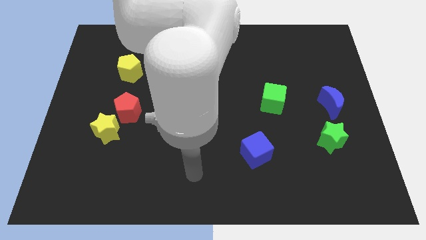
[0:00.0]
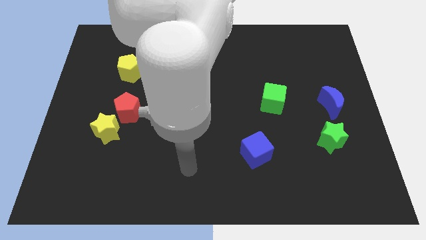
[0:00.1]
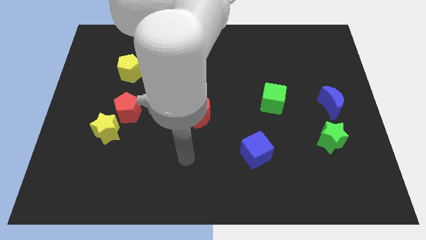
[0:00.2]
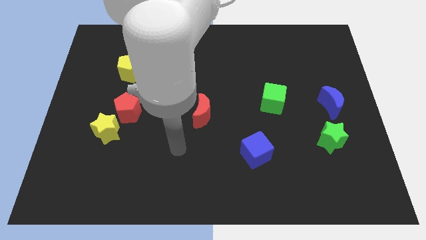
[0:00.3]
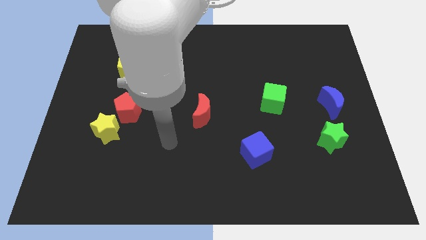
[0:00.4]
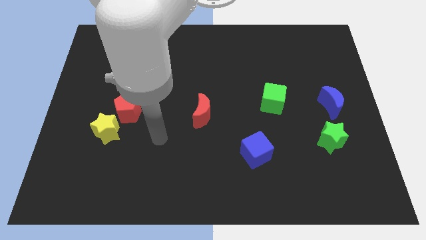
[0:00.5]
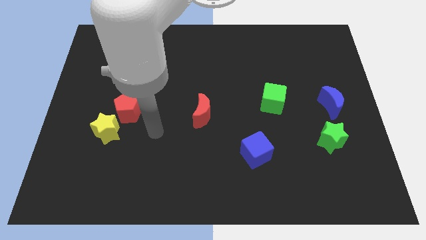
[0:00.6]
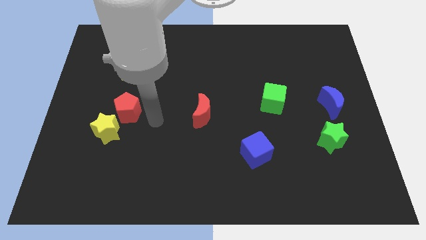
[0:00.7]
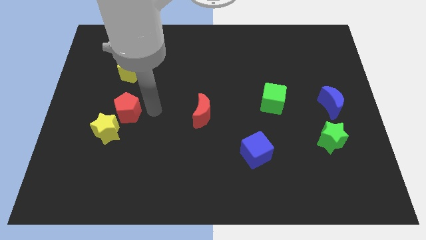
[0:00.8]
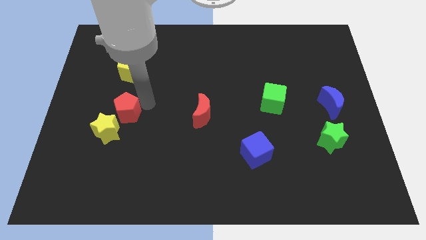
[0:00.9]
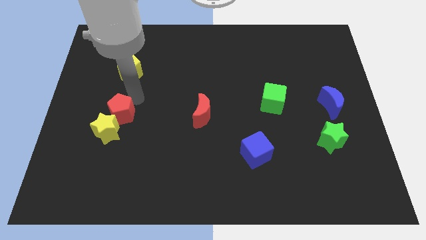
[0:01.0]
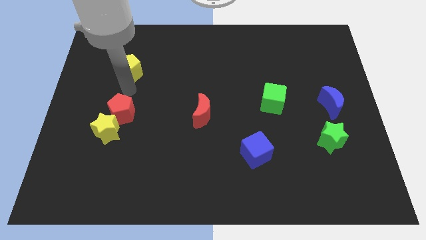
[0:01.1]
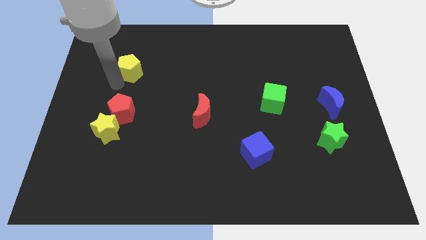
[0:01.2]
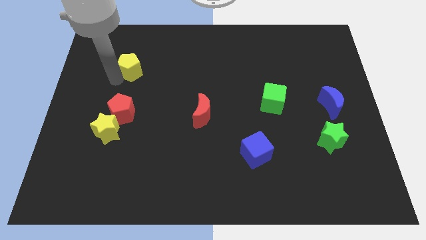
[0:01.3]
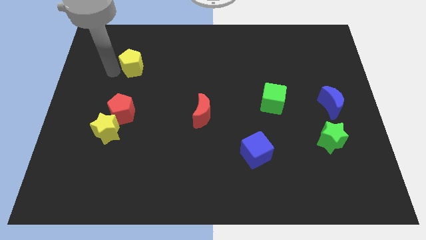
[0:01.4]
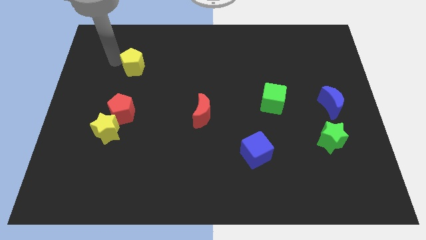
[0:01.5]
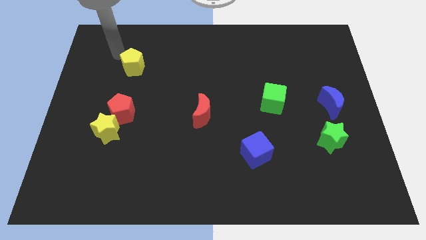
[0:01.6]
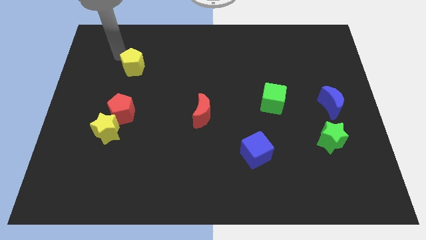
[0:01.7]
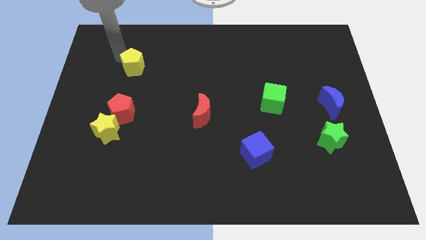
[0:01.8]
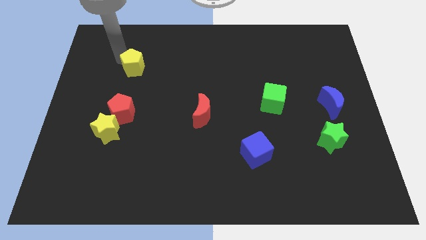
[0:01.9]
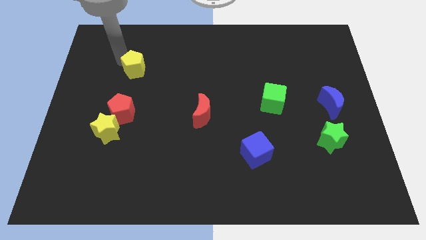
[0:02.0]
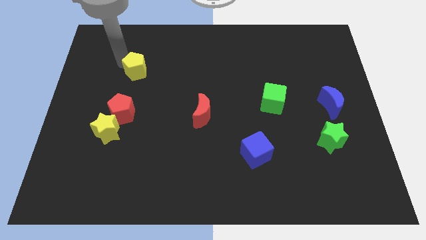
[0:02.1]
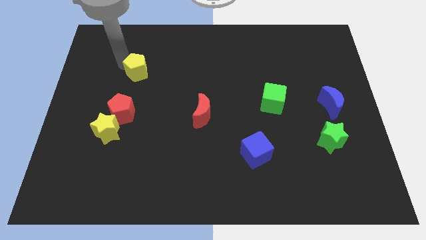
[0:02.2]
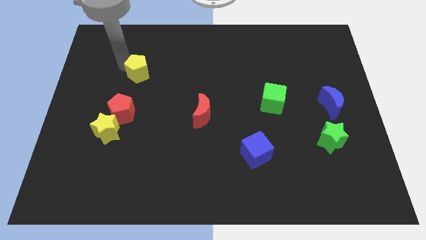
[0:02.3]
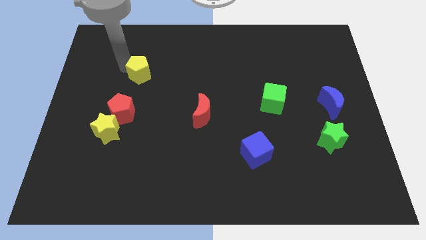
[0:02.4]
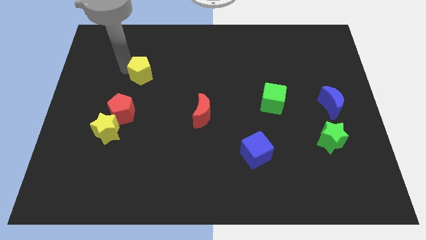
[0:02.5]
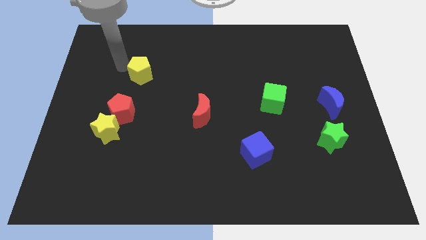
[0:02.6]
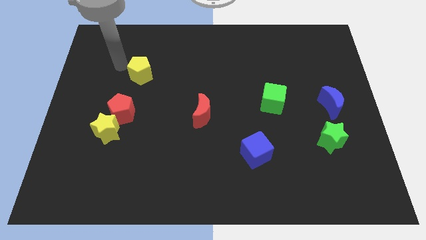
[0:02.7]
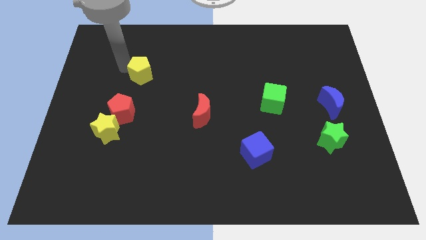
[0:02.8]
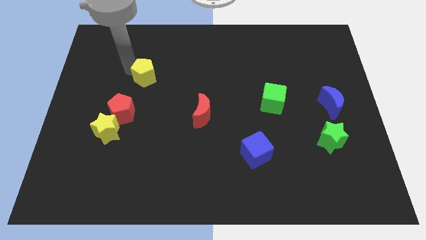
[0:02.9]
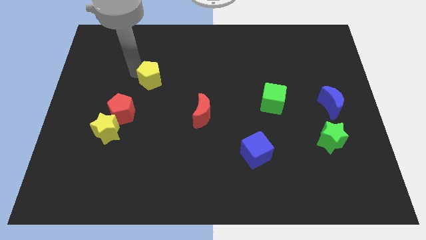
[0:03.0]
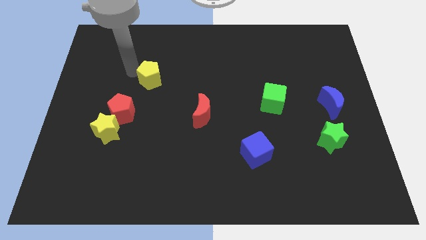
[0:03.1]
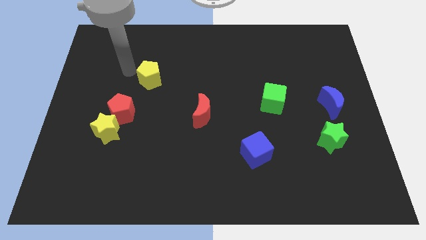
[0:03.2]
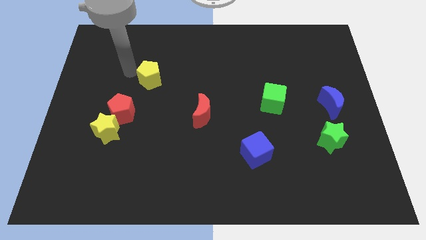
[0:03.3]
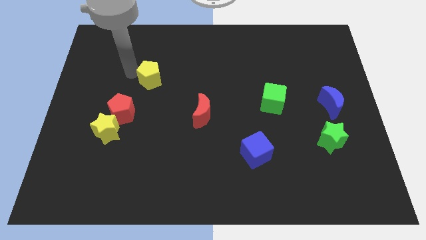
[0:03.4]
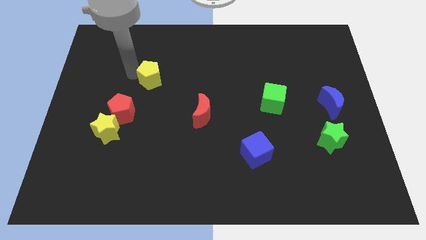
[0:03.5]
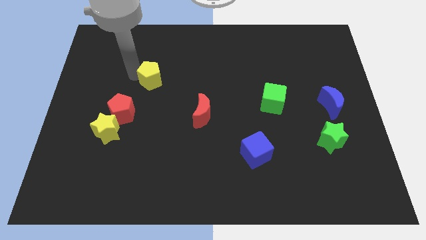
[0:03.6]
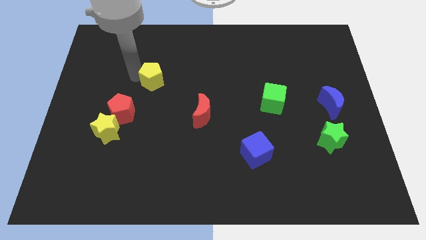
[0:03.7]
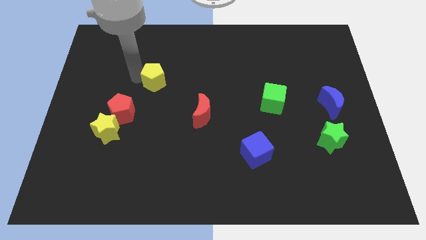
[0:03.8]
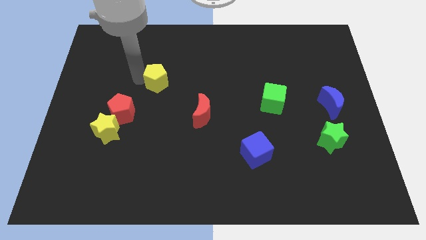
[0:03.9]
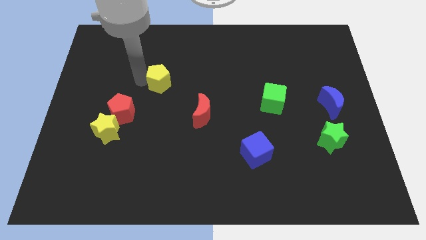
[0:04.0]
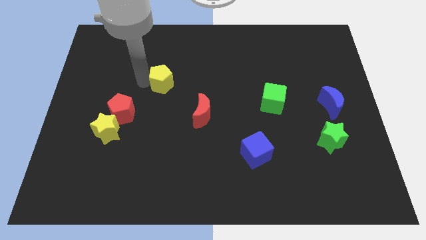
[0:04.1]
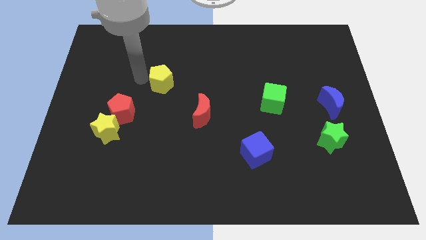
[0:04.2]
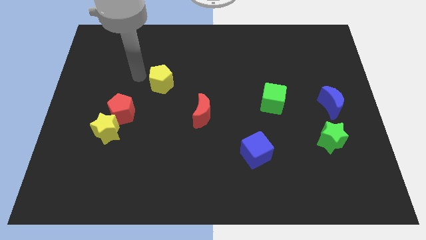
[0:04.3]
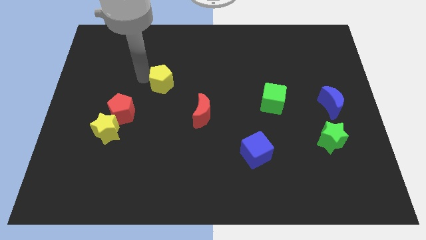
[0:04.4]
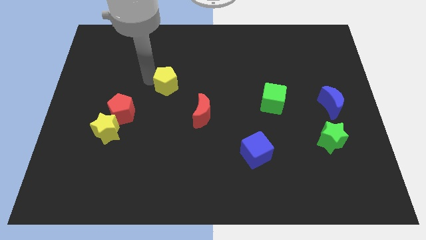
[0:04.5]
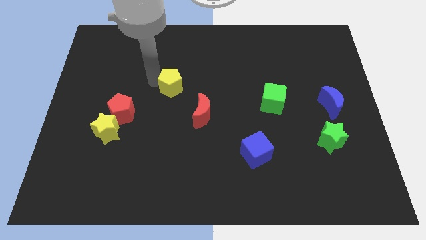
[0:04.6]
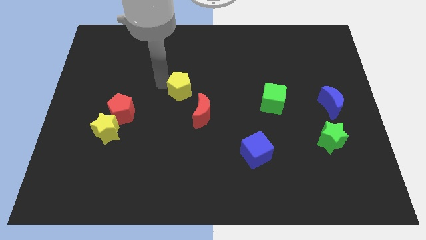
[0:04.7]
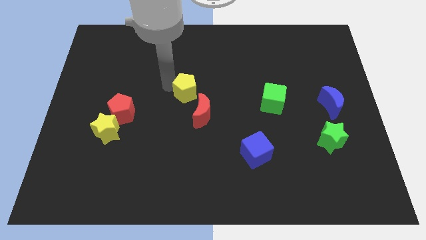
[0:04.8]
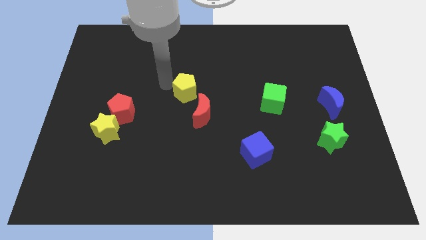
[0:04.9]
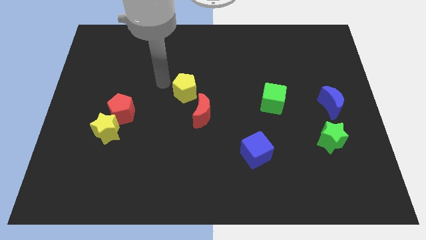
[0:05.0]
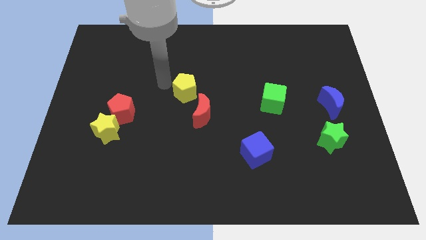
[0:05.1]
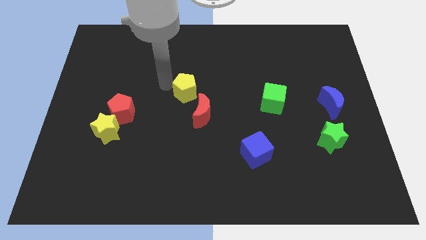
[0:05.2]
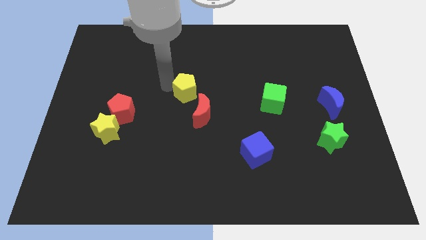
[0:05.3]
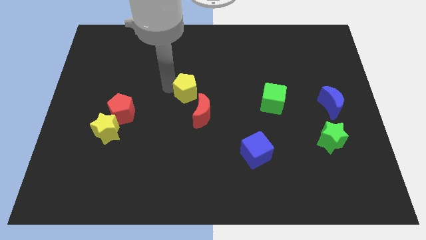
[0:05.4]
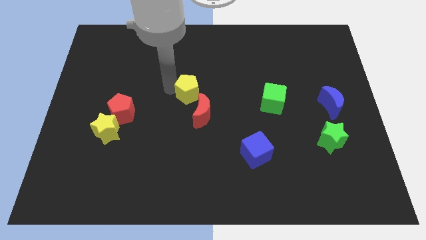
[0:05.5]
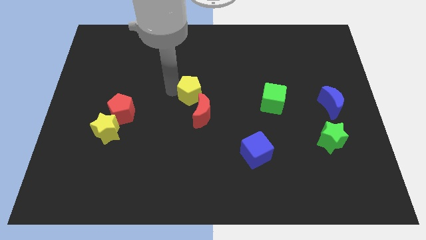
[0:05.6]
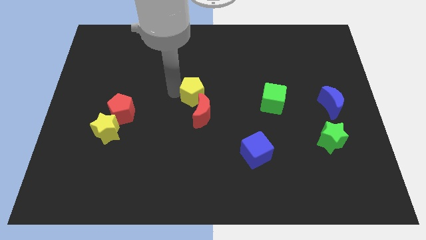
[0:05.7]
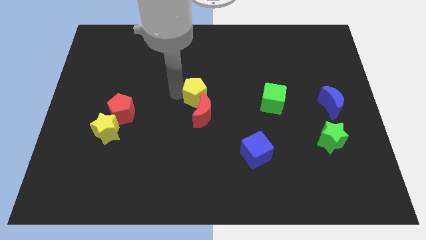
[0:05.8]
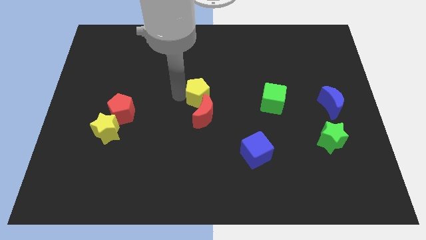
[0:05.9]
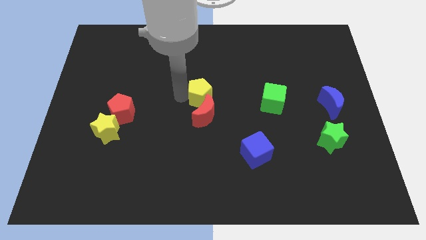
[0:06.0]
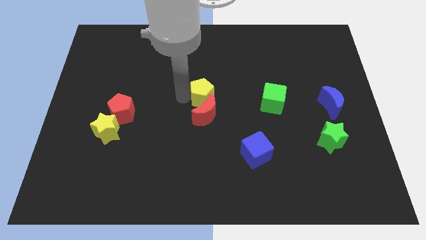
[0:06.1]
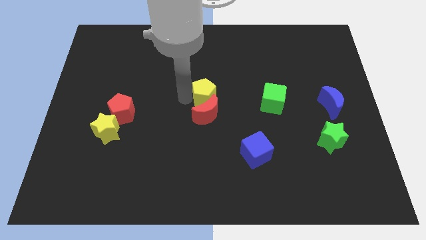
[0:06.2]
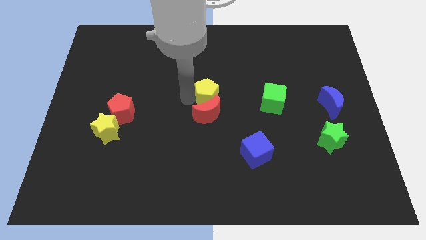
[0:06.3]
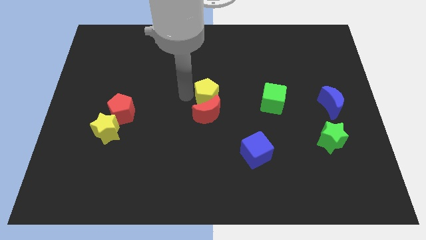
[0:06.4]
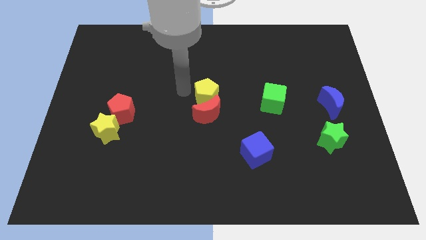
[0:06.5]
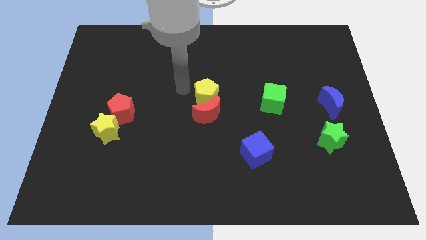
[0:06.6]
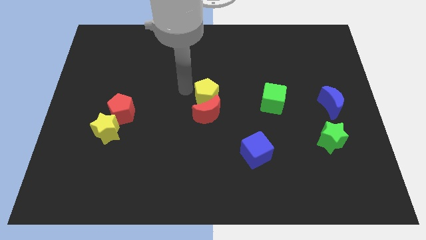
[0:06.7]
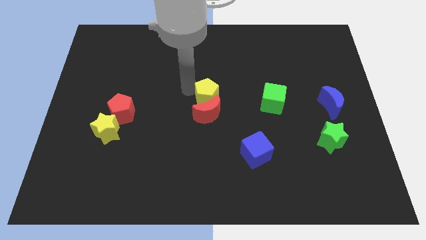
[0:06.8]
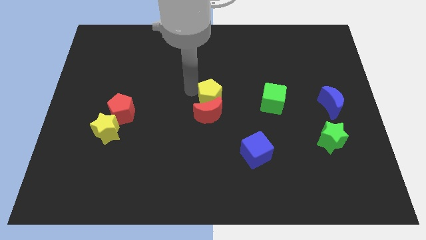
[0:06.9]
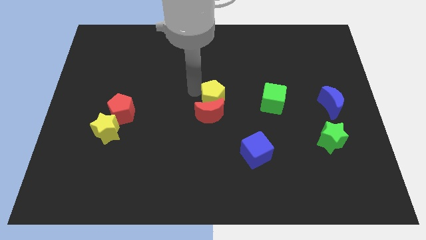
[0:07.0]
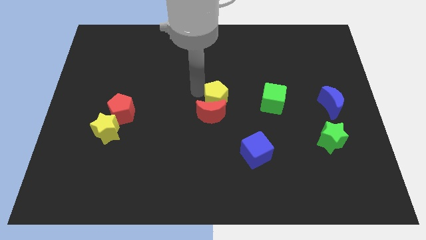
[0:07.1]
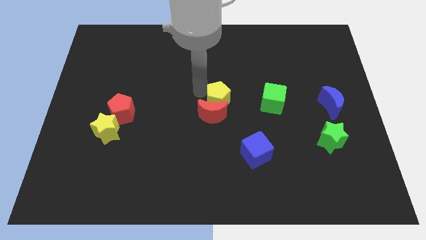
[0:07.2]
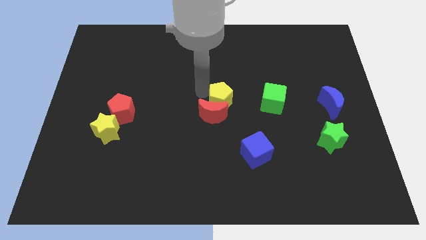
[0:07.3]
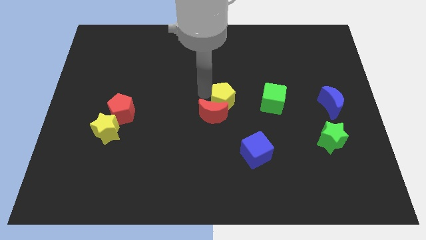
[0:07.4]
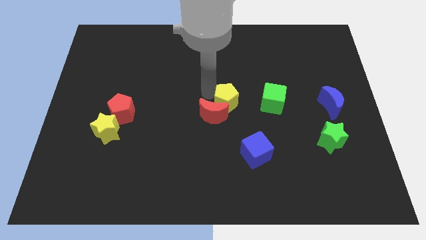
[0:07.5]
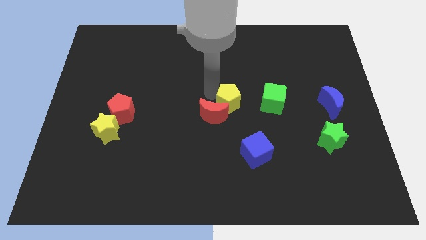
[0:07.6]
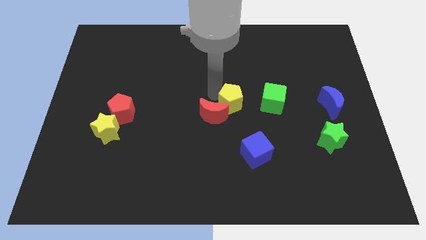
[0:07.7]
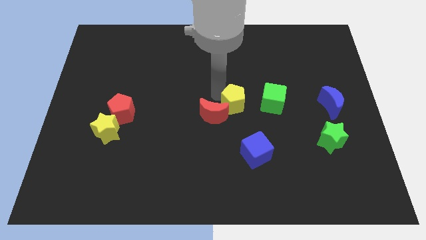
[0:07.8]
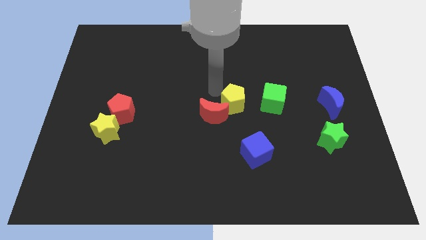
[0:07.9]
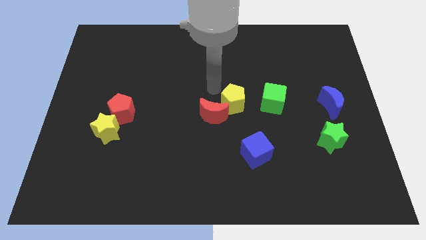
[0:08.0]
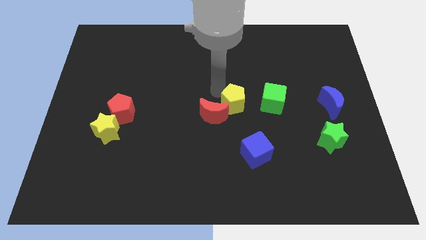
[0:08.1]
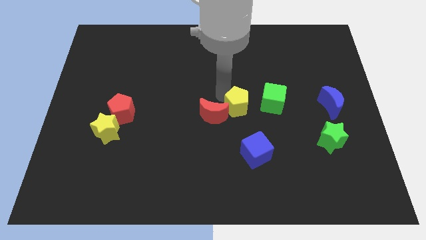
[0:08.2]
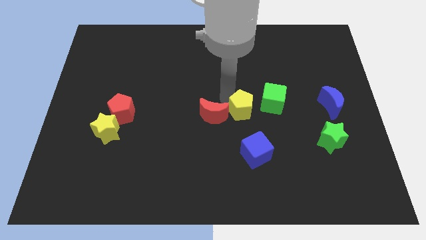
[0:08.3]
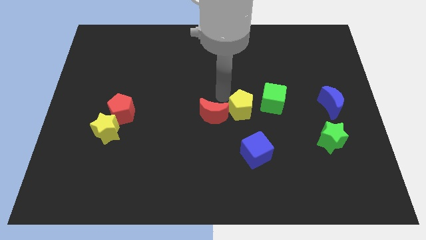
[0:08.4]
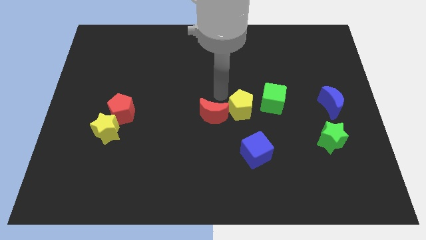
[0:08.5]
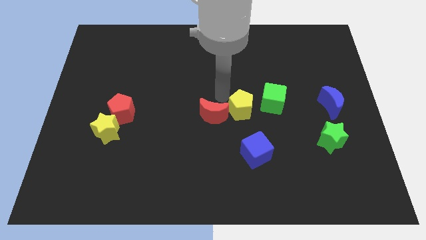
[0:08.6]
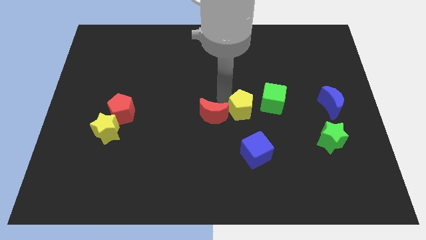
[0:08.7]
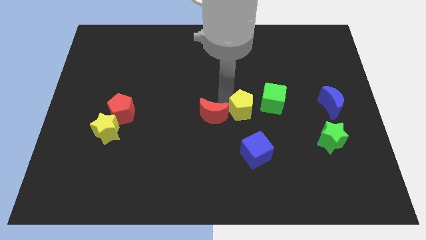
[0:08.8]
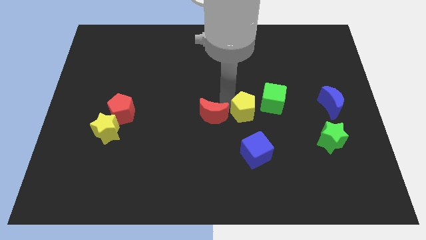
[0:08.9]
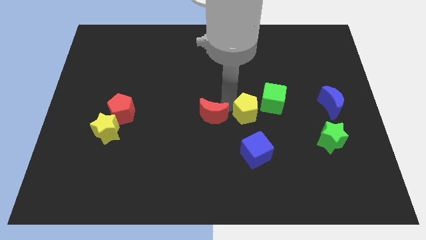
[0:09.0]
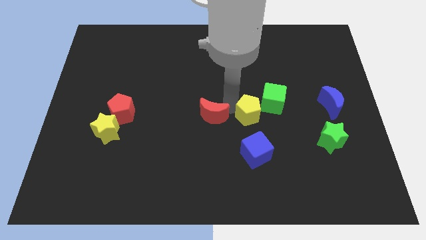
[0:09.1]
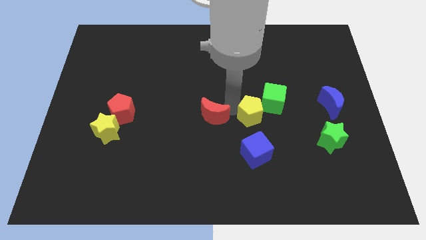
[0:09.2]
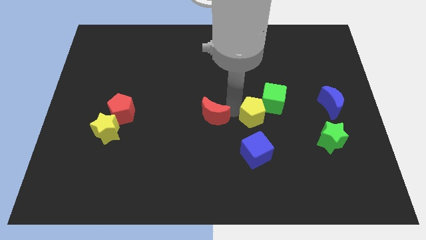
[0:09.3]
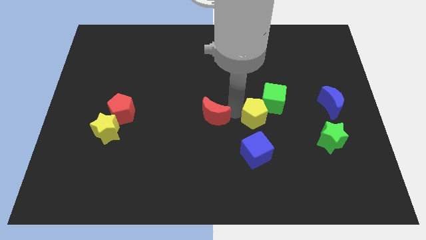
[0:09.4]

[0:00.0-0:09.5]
slide the yellow pentagon below the green cube
